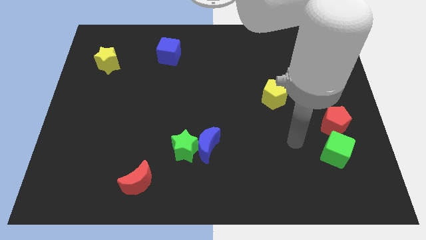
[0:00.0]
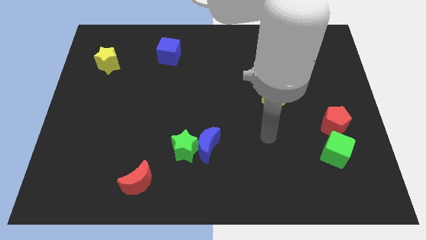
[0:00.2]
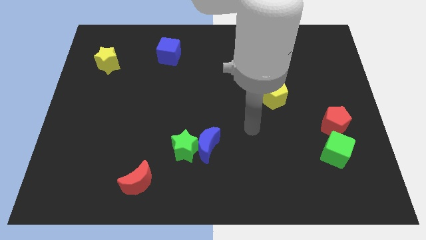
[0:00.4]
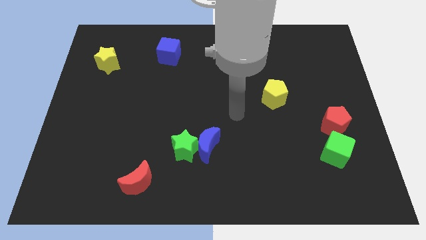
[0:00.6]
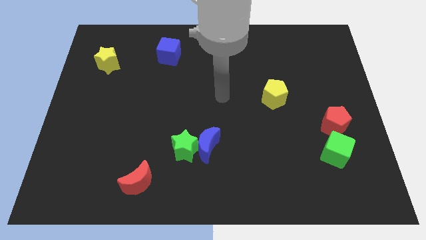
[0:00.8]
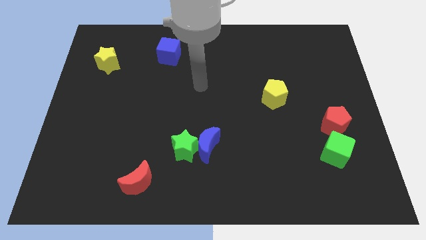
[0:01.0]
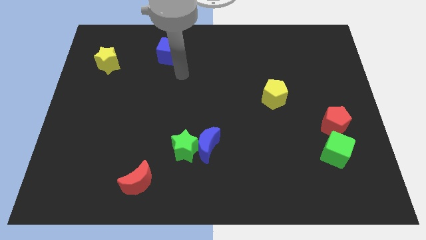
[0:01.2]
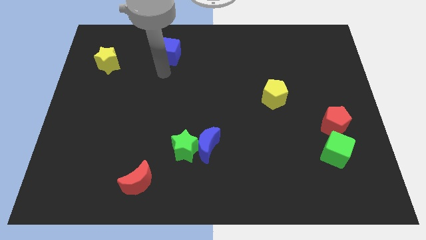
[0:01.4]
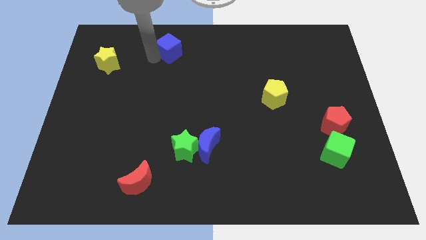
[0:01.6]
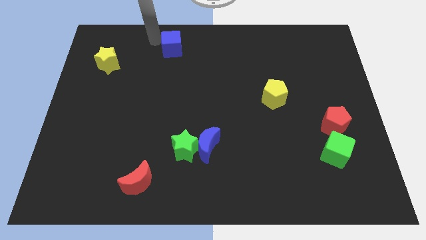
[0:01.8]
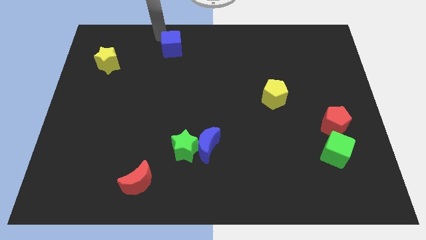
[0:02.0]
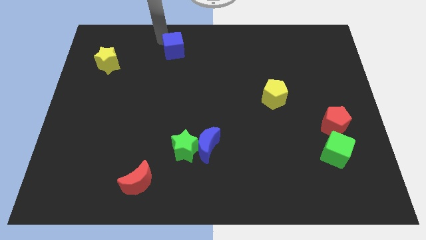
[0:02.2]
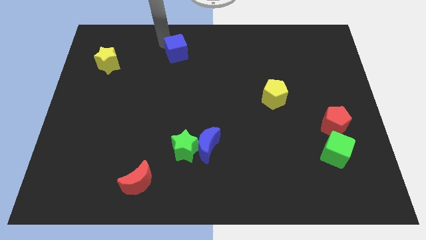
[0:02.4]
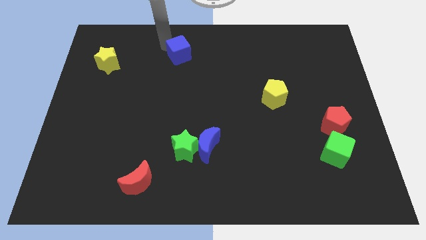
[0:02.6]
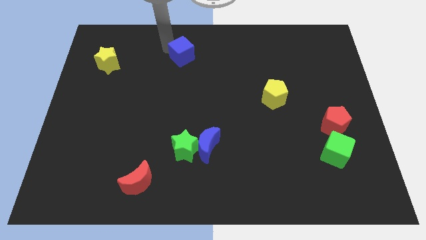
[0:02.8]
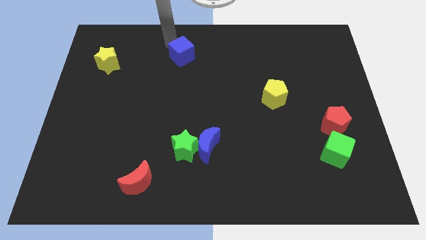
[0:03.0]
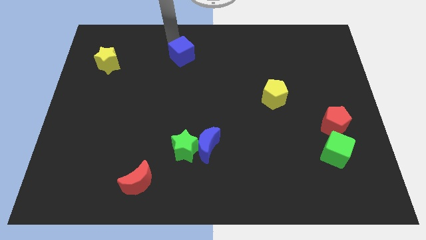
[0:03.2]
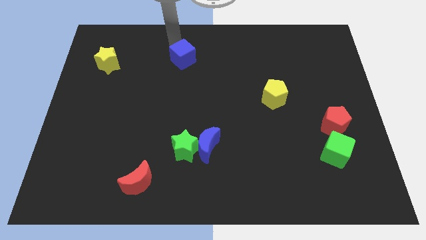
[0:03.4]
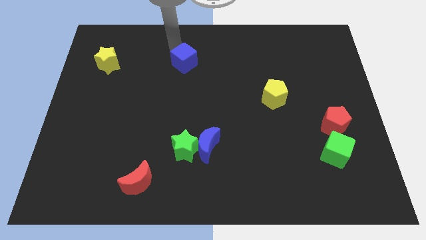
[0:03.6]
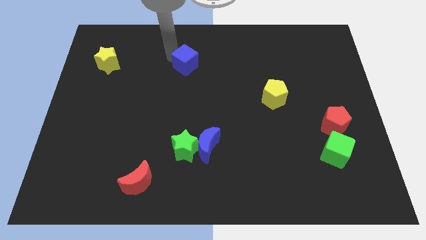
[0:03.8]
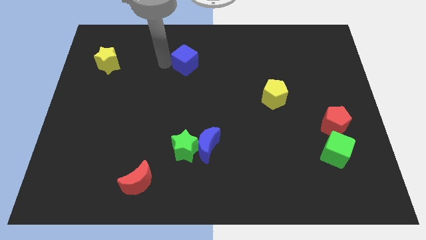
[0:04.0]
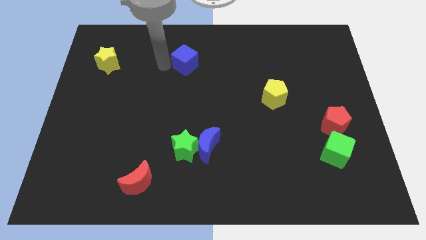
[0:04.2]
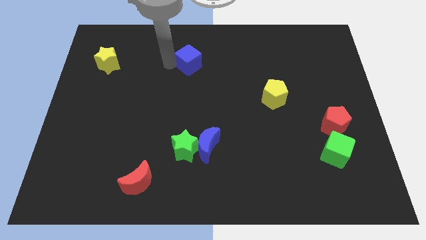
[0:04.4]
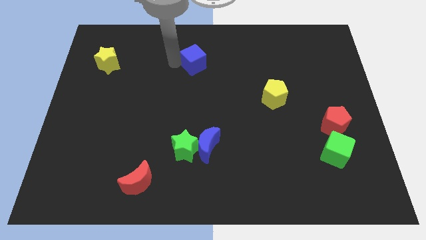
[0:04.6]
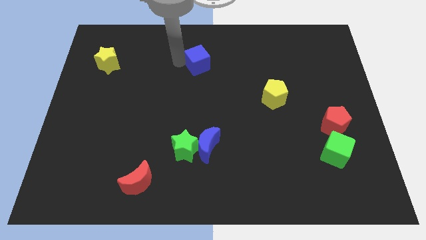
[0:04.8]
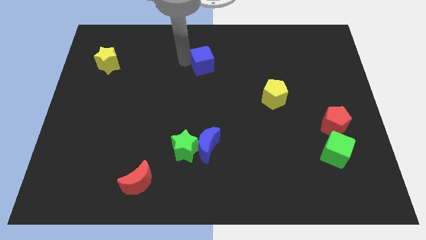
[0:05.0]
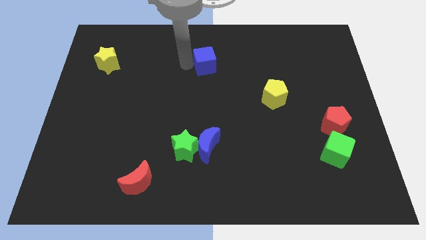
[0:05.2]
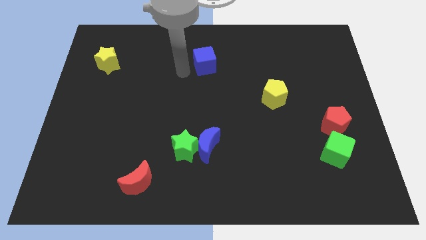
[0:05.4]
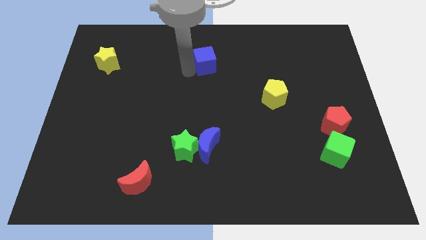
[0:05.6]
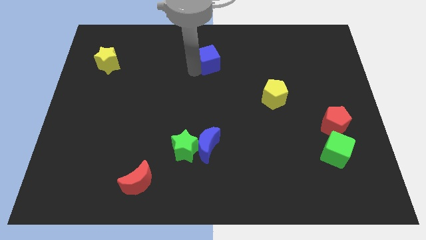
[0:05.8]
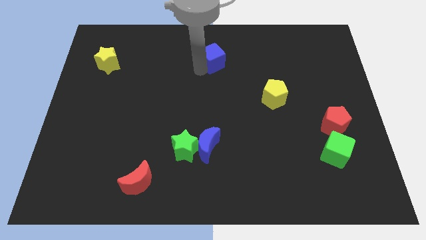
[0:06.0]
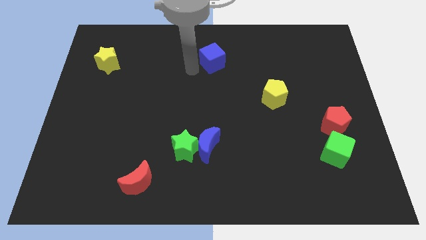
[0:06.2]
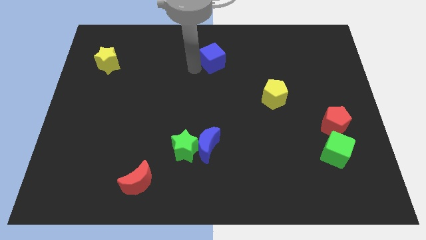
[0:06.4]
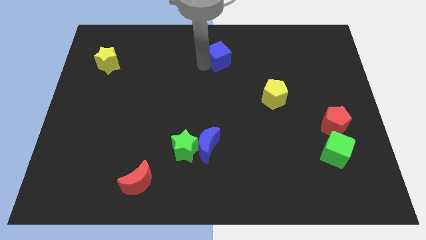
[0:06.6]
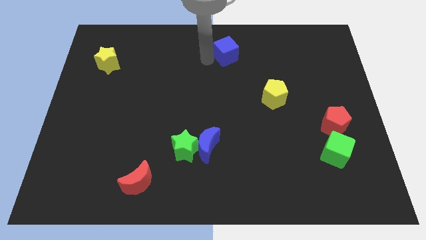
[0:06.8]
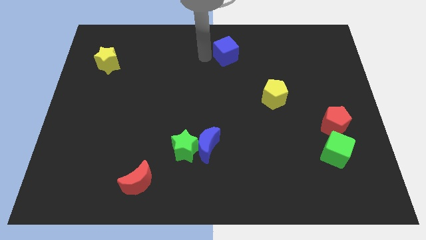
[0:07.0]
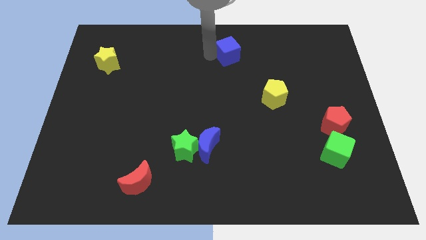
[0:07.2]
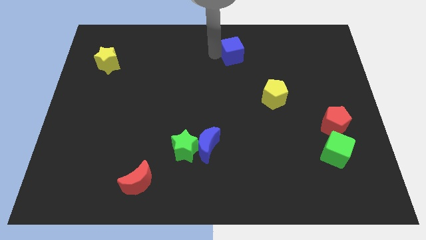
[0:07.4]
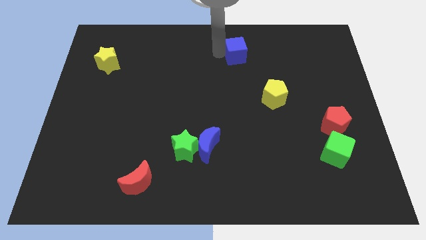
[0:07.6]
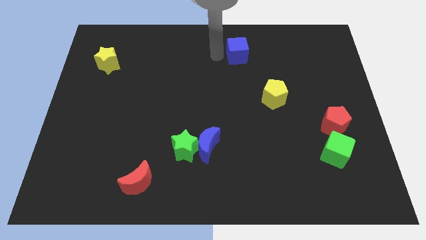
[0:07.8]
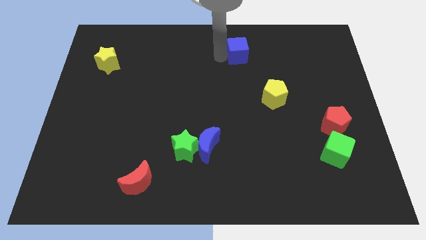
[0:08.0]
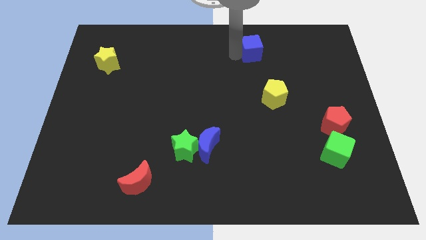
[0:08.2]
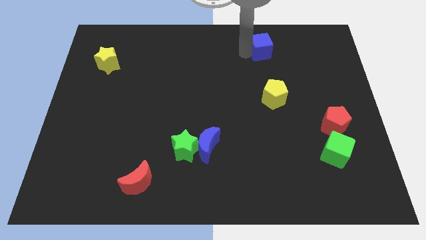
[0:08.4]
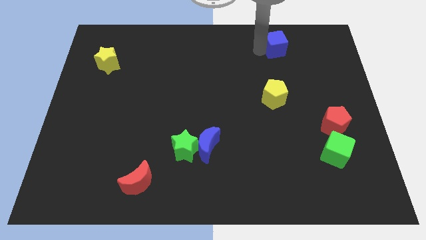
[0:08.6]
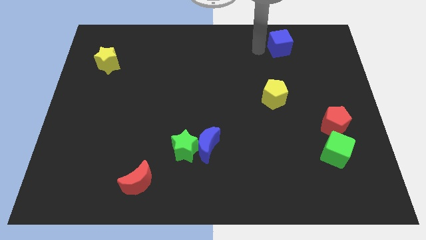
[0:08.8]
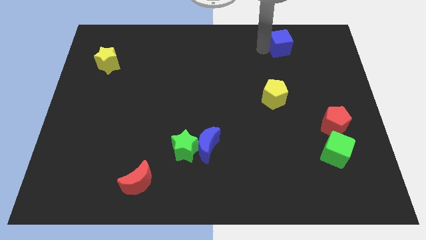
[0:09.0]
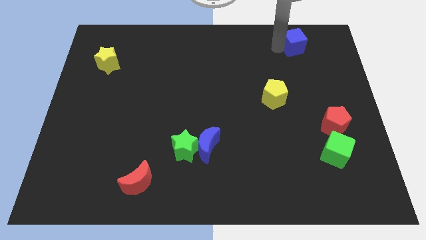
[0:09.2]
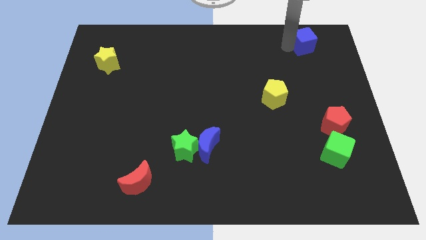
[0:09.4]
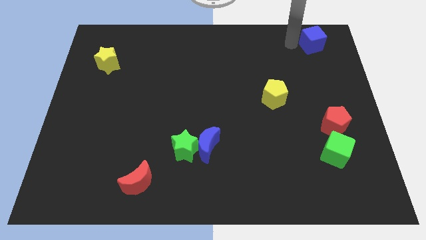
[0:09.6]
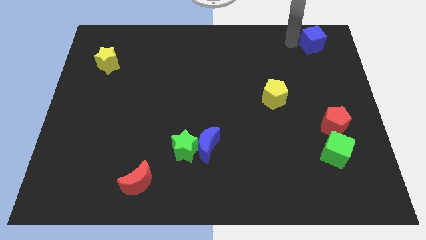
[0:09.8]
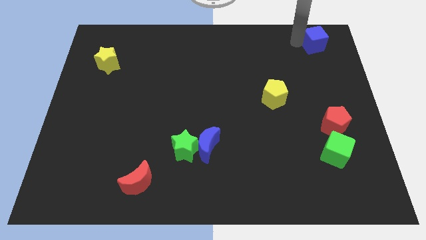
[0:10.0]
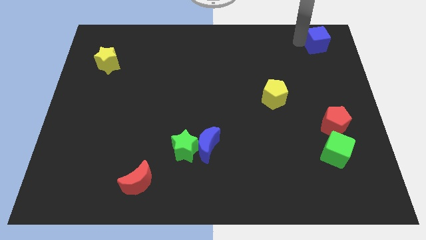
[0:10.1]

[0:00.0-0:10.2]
slide the blue cube to the top right
